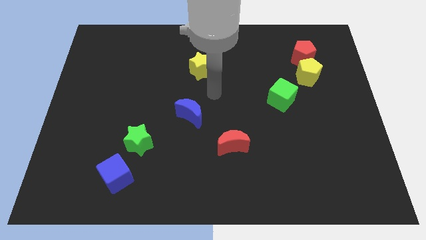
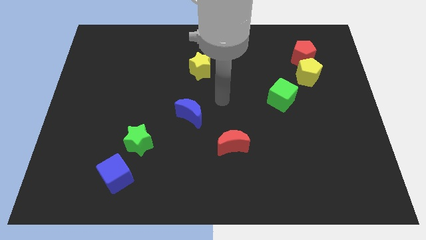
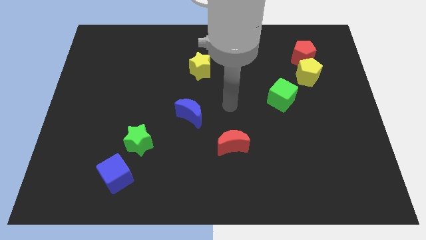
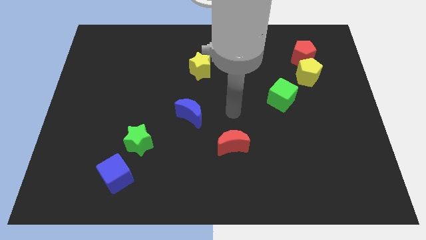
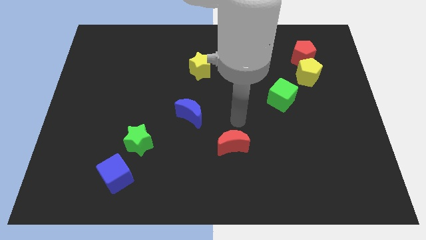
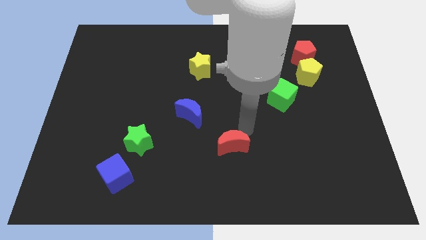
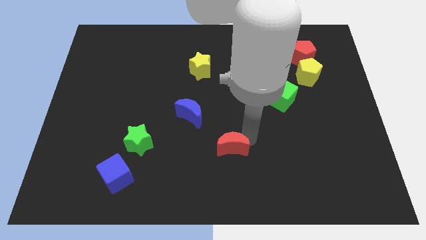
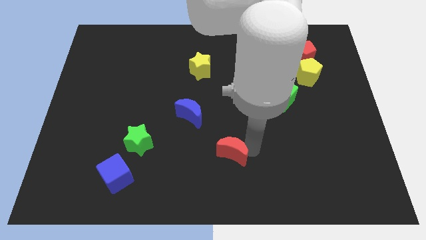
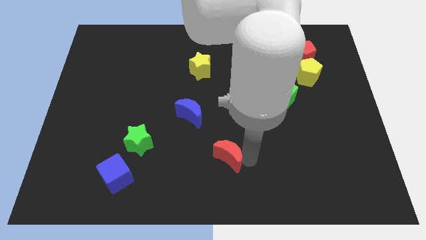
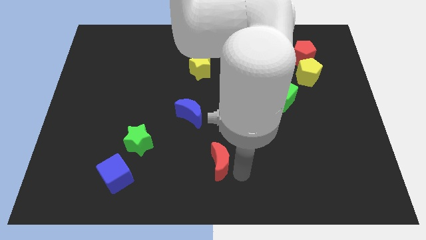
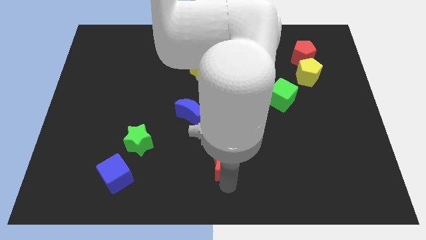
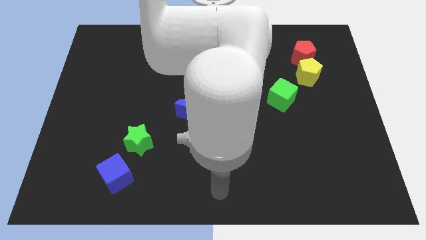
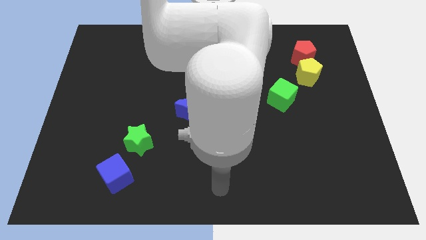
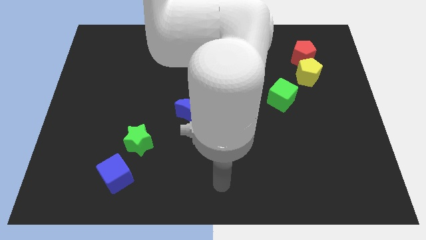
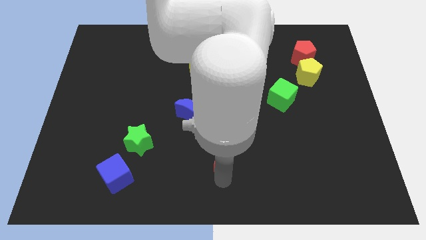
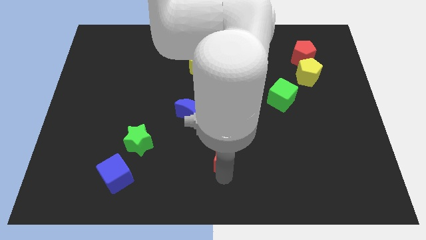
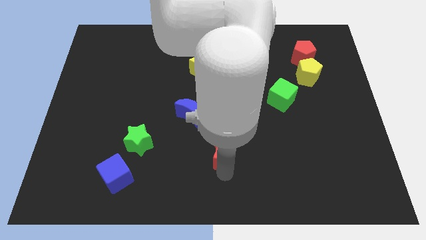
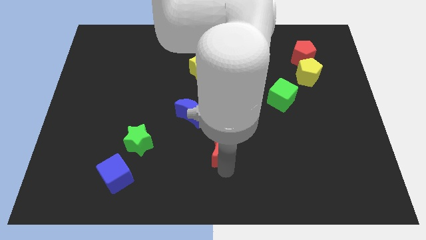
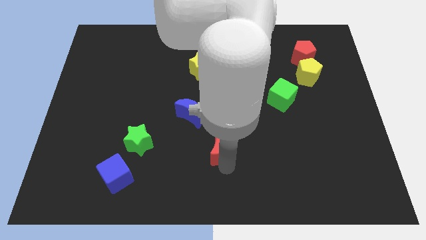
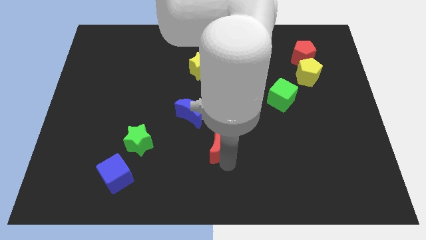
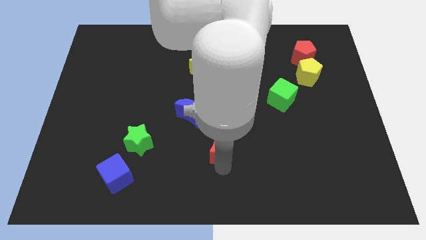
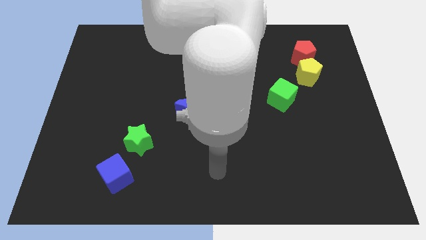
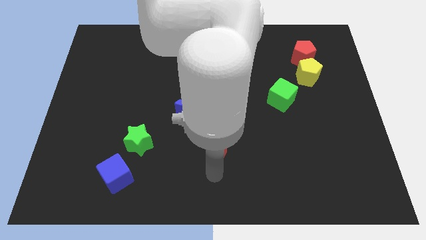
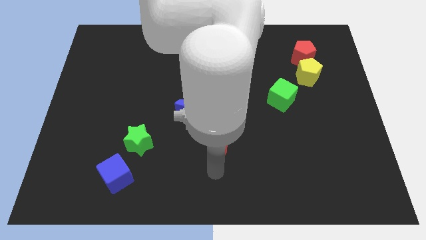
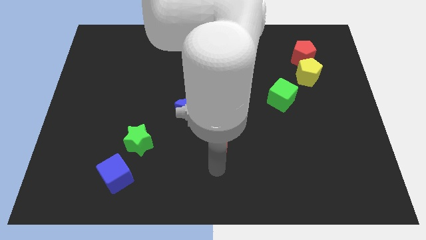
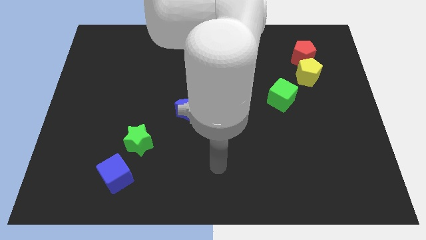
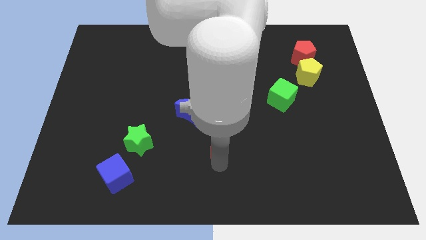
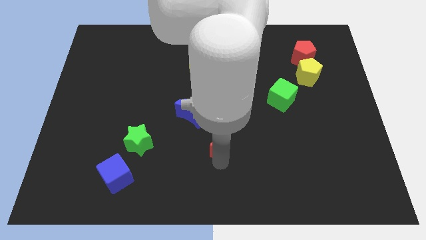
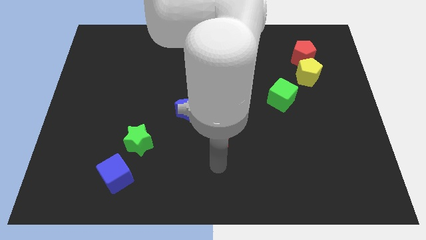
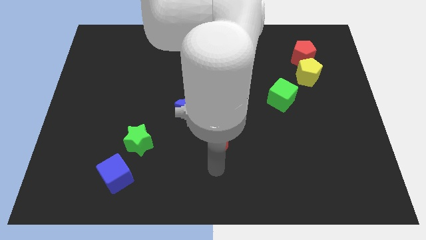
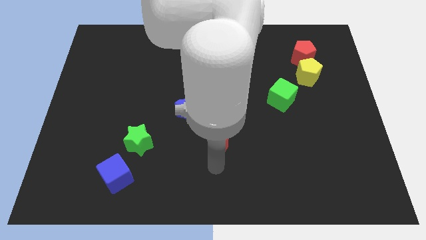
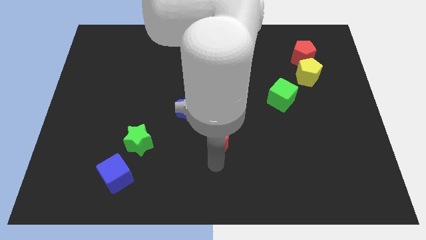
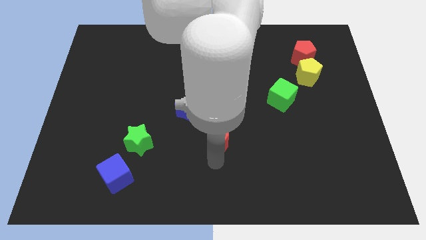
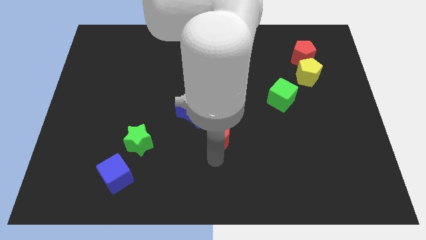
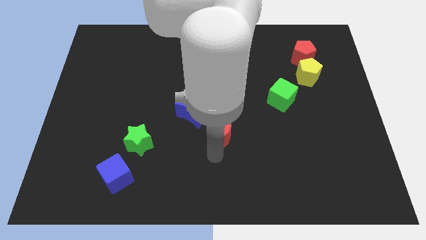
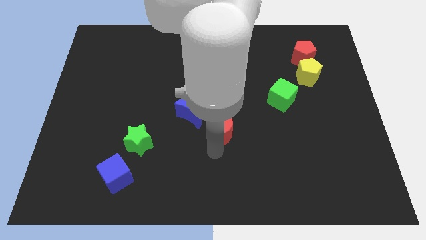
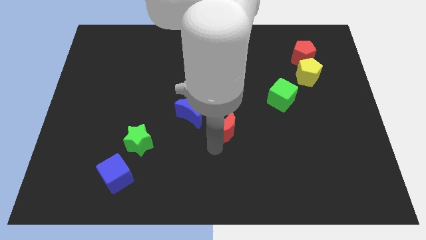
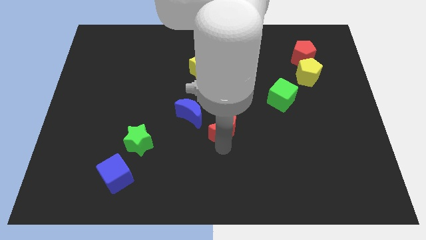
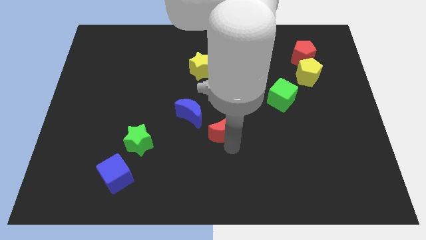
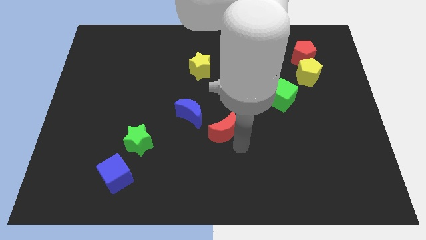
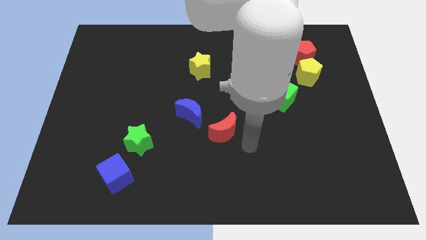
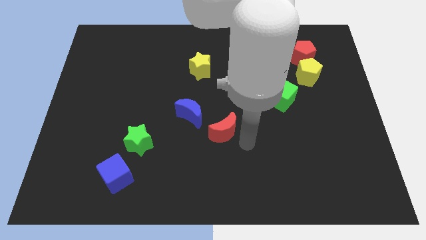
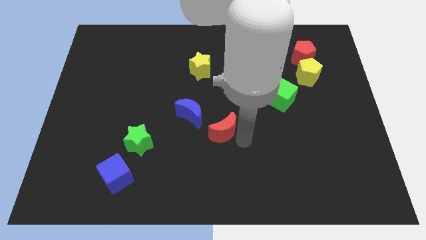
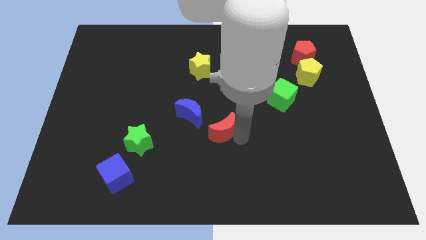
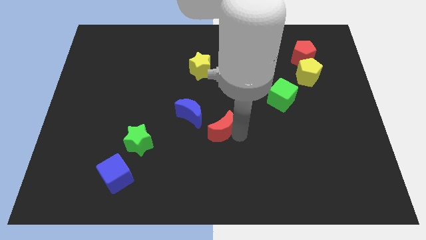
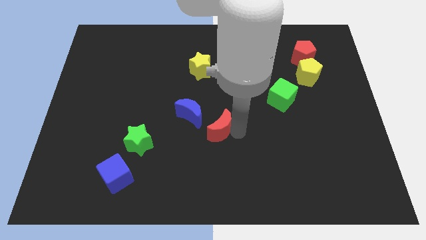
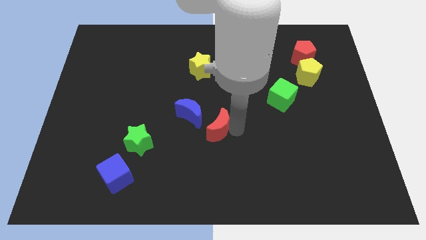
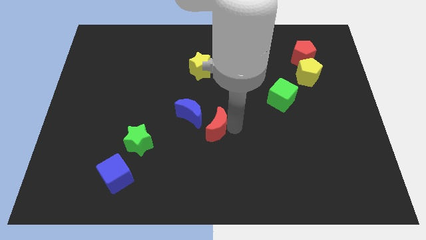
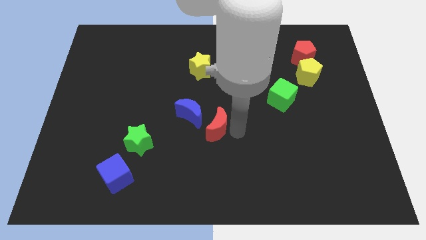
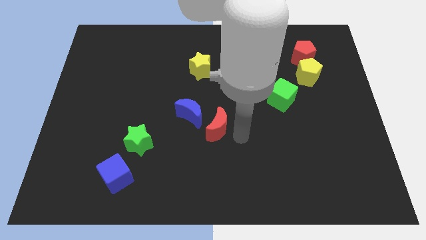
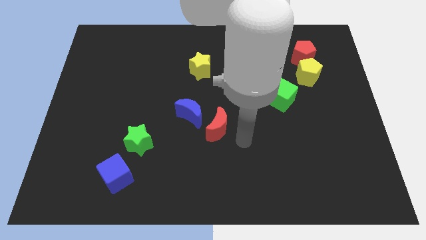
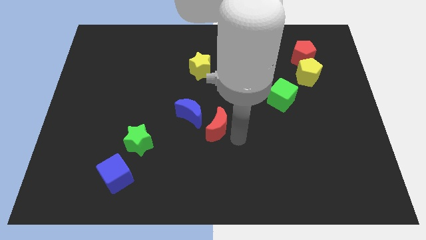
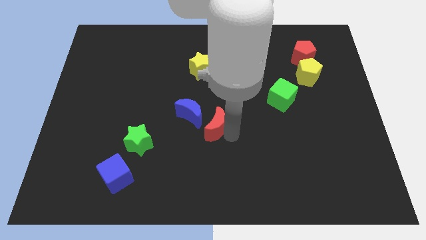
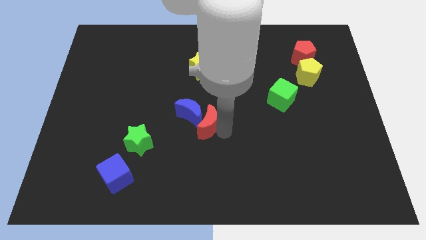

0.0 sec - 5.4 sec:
move the red moon to the blue moon

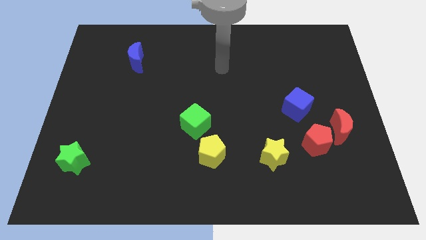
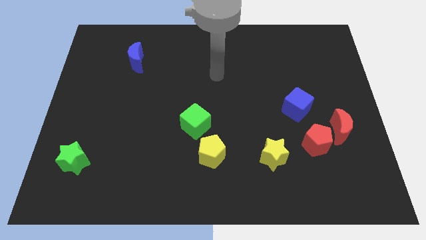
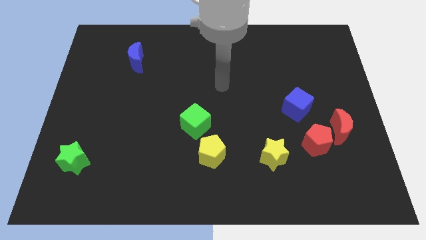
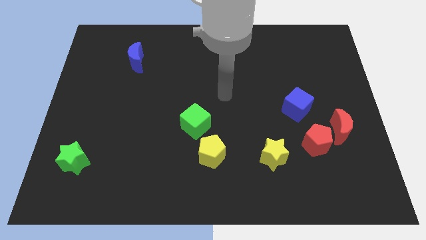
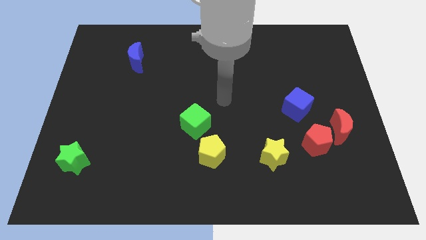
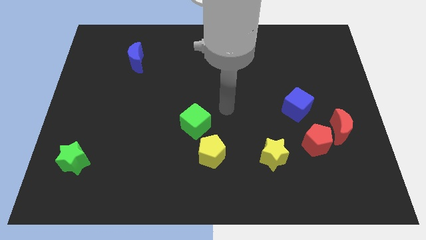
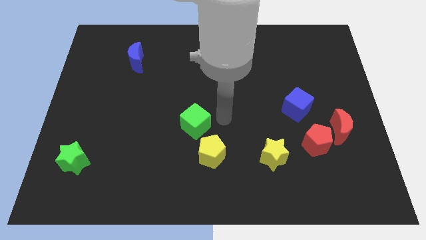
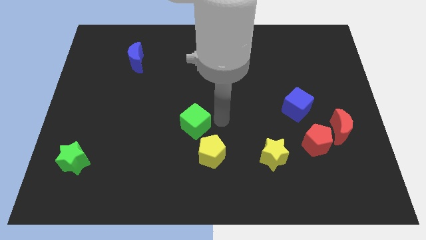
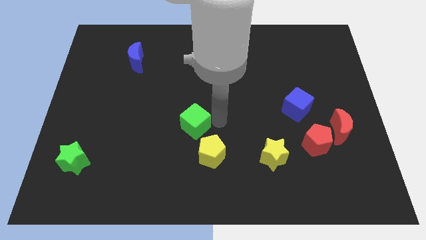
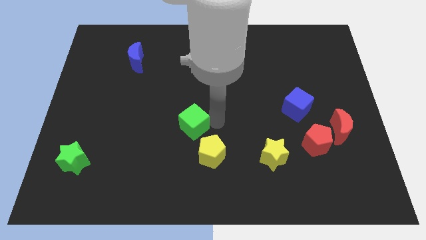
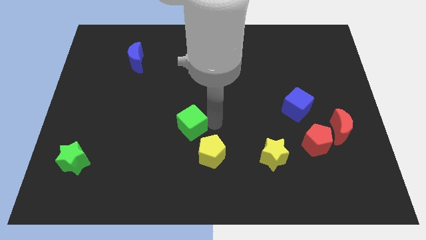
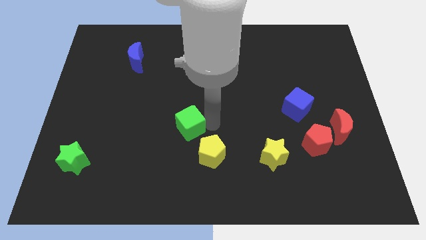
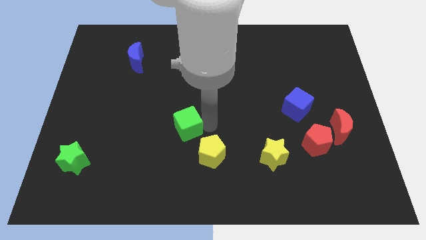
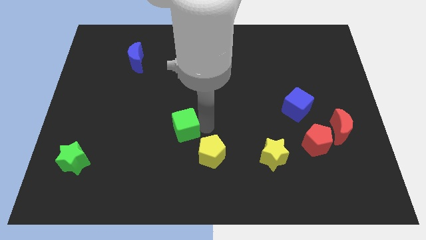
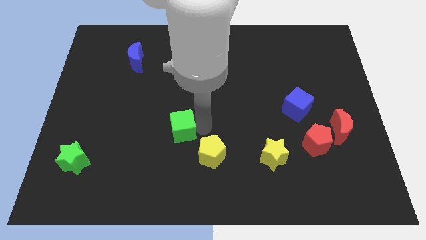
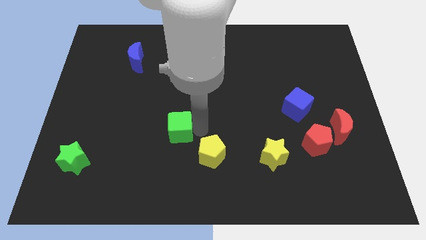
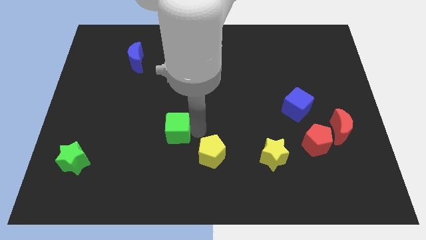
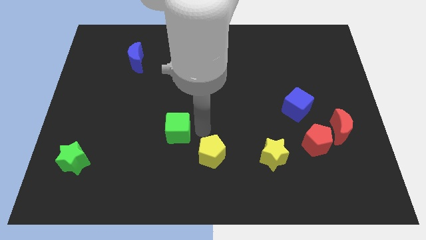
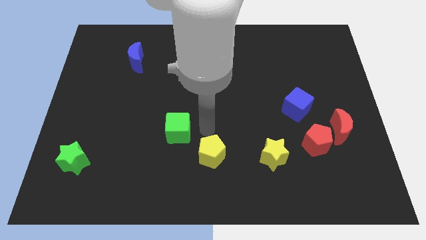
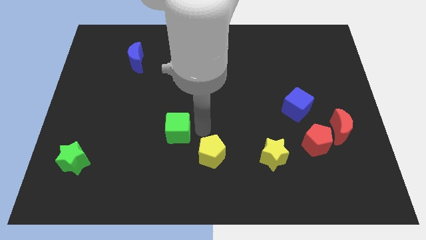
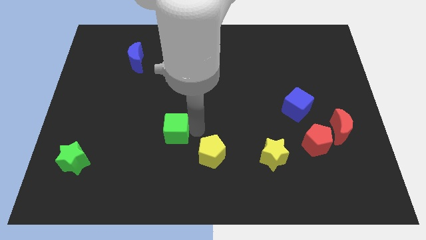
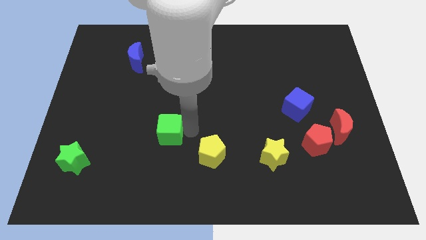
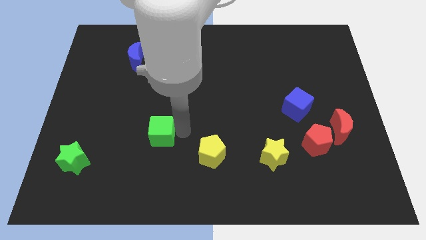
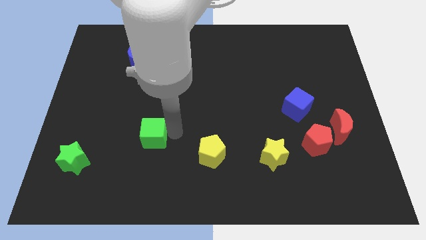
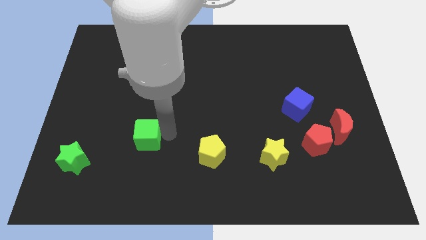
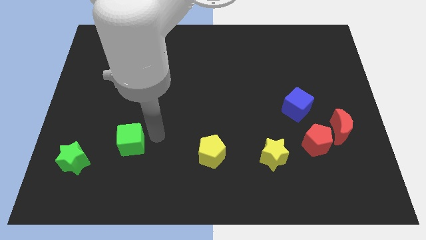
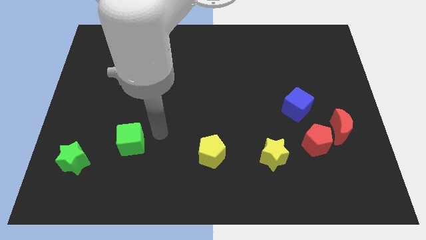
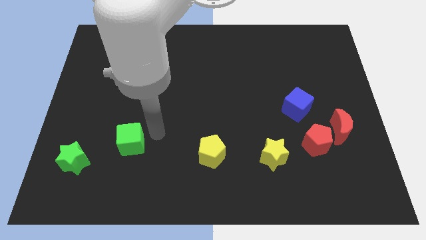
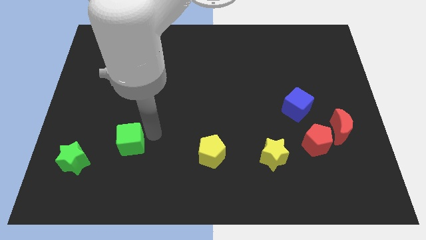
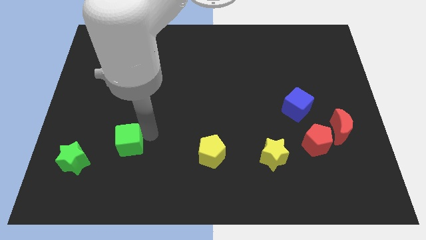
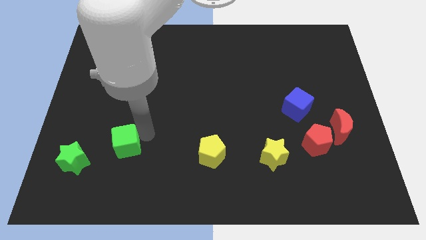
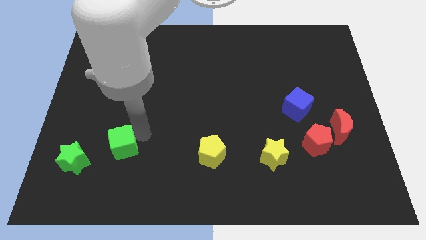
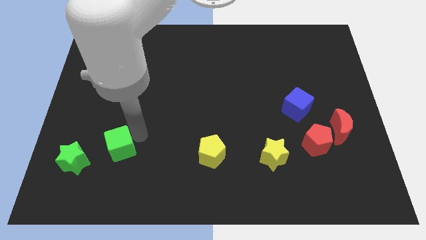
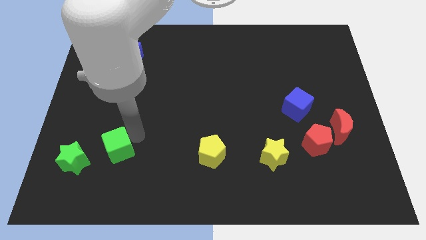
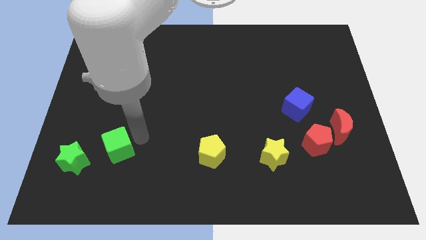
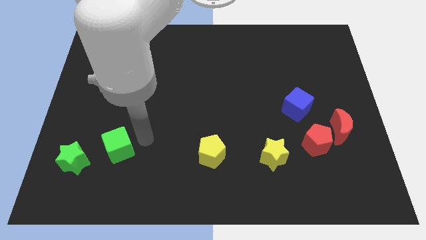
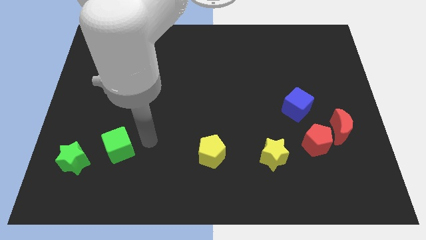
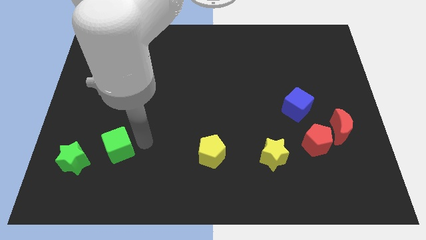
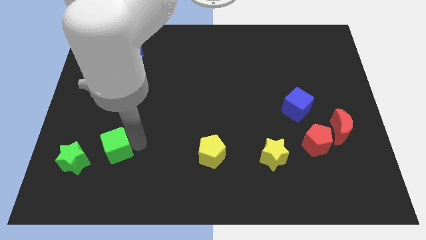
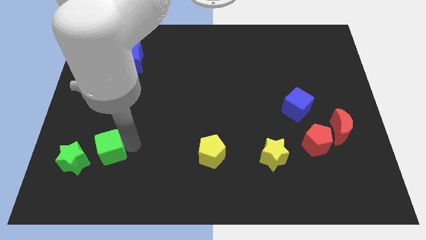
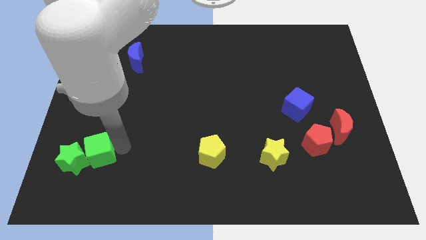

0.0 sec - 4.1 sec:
slide the green cube close to the green star
